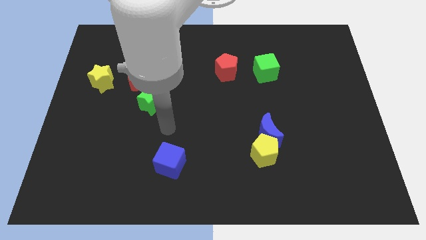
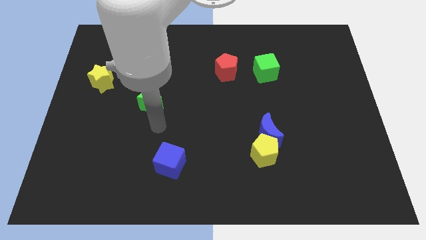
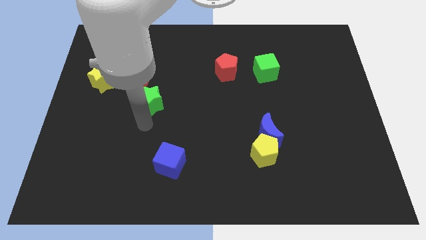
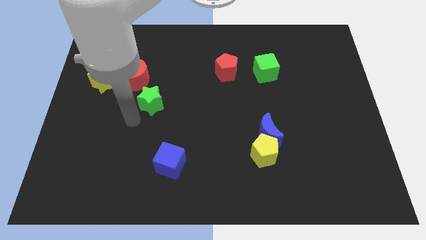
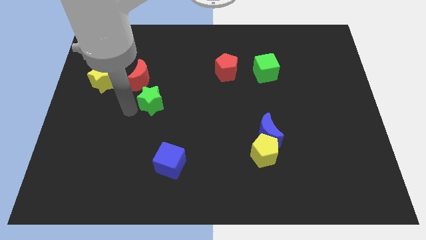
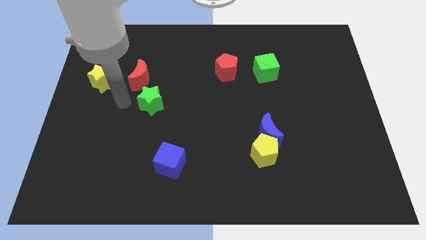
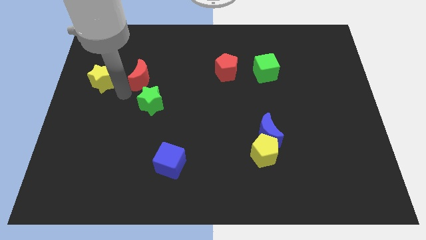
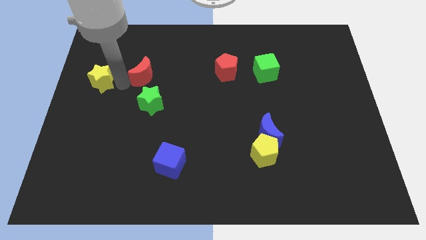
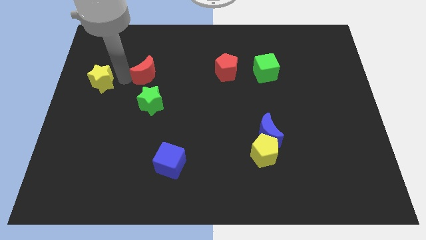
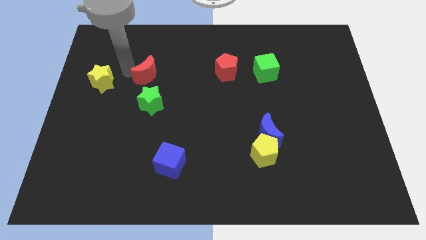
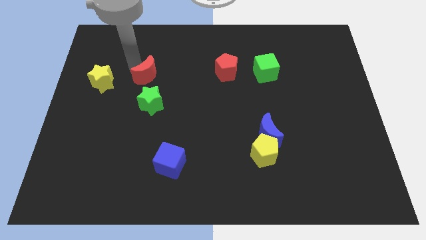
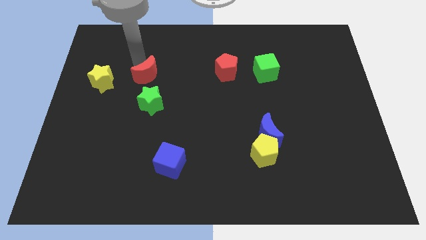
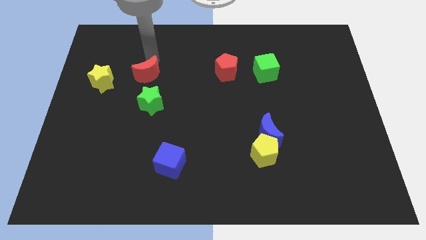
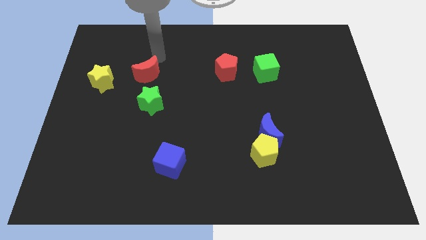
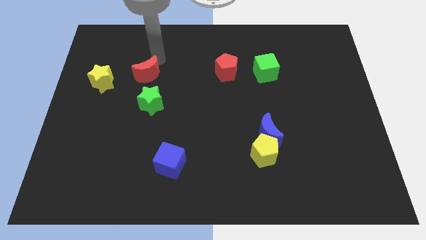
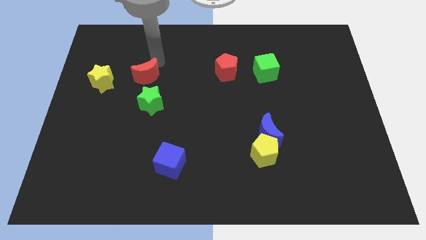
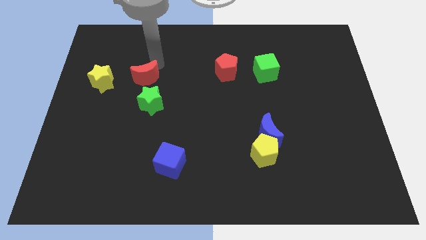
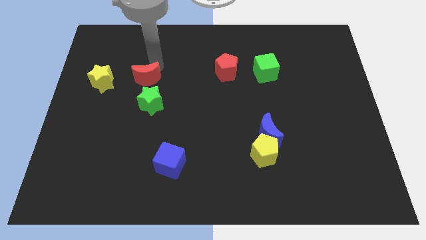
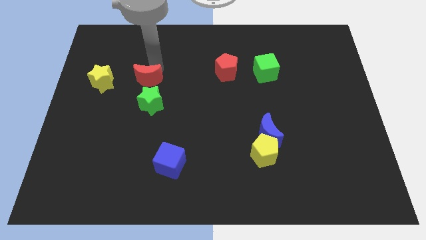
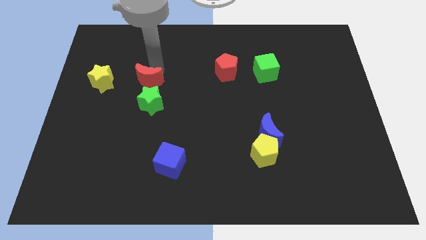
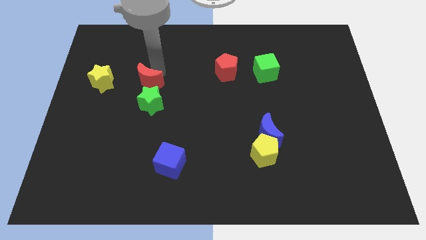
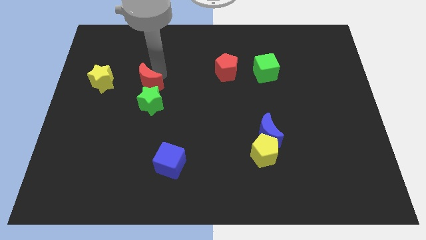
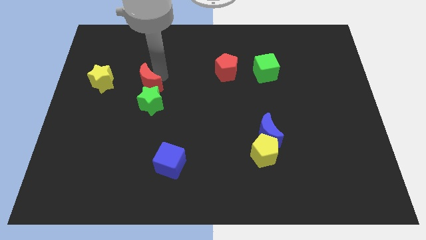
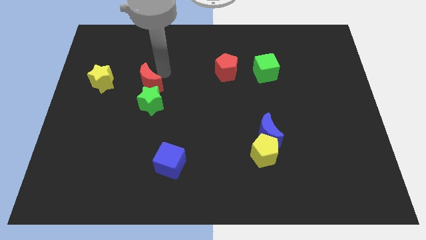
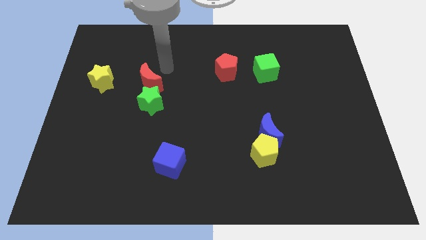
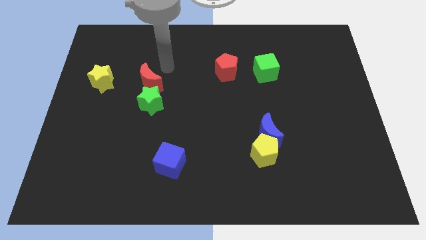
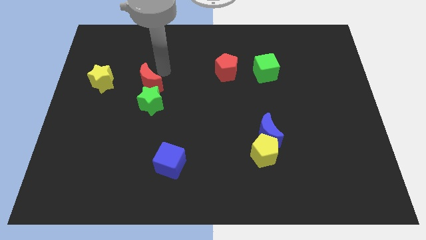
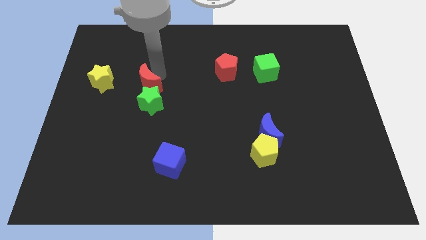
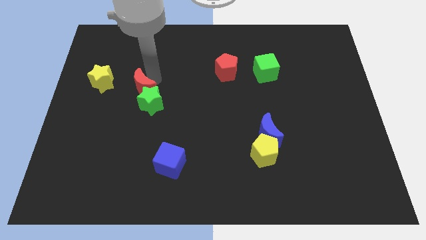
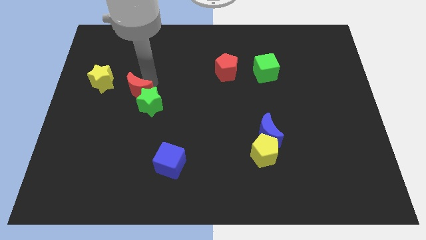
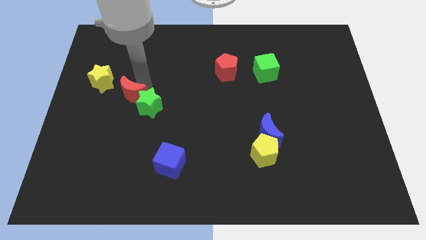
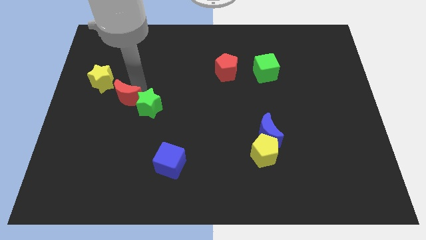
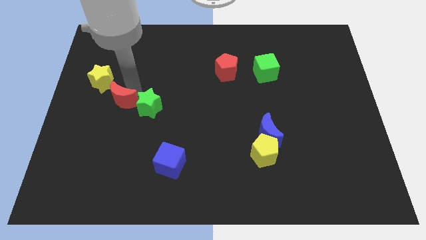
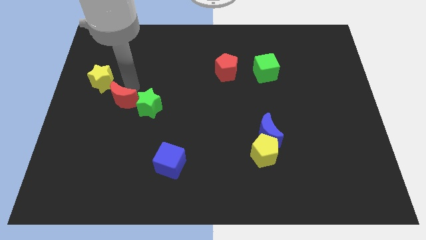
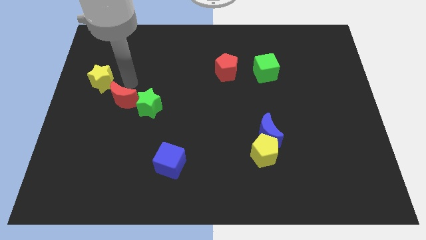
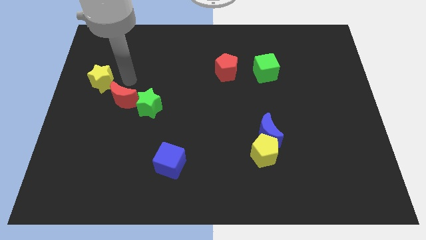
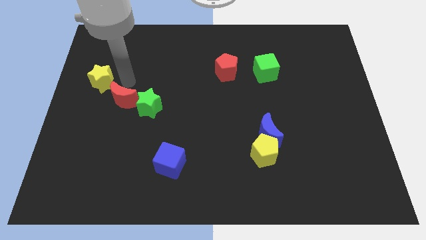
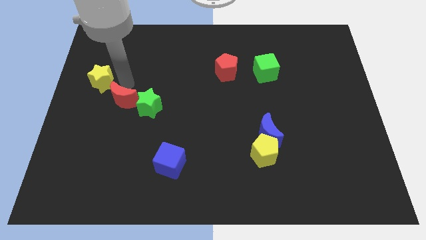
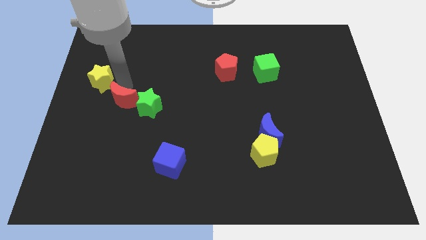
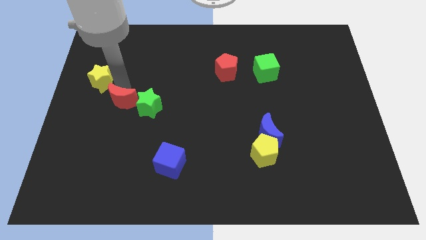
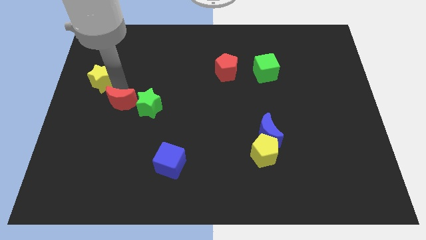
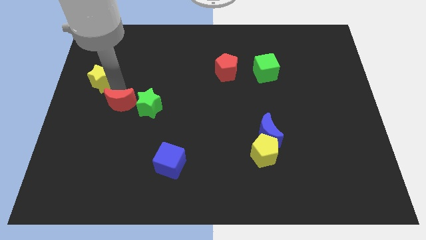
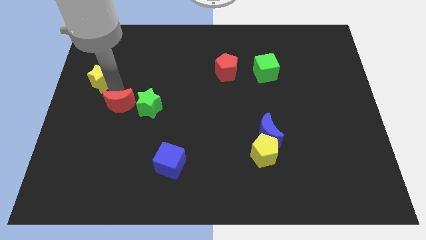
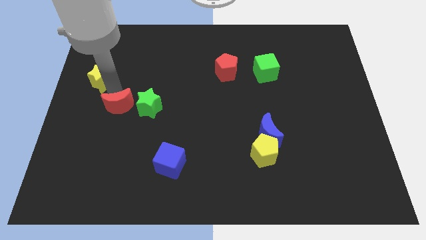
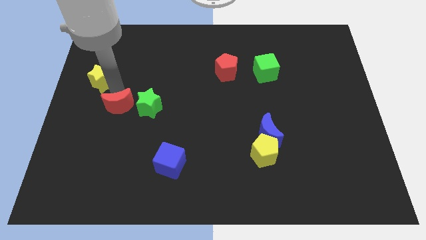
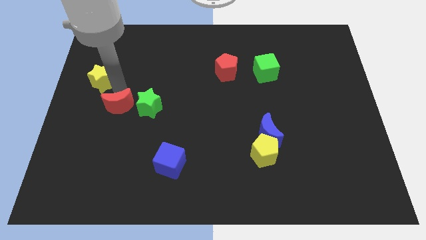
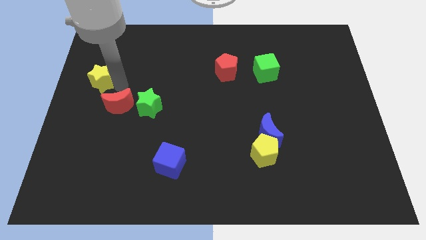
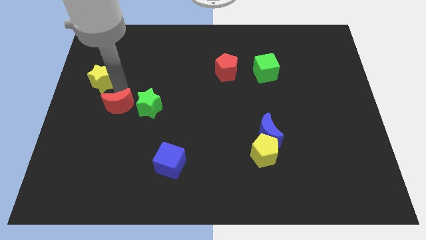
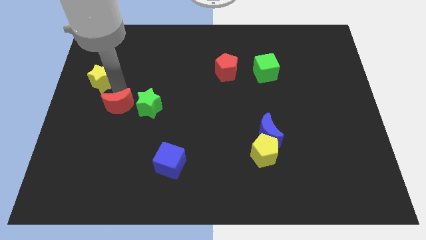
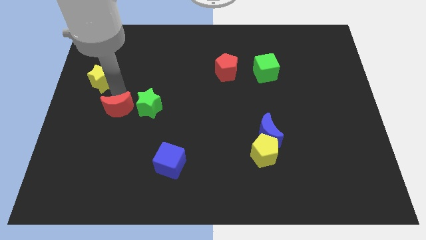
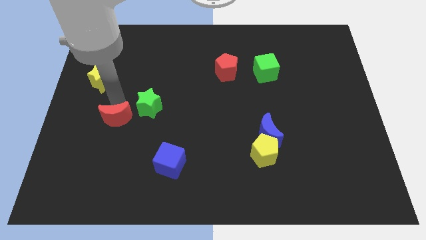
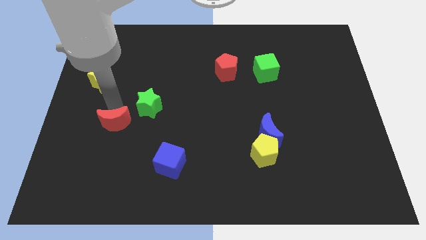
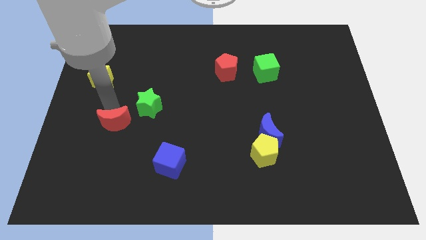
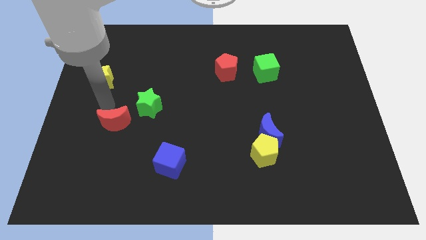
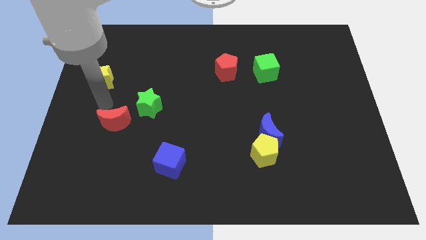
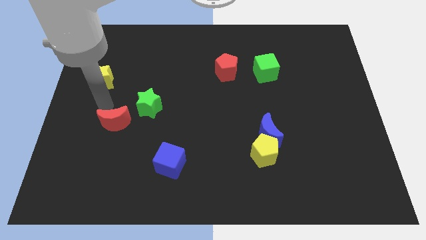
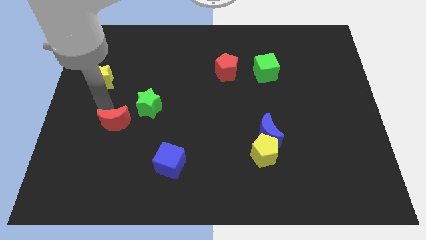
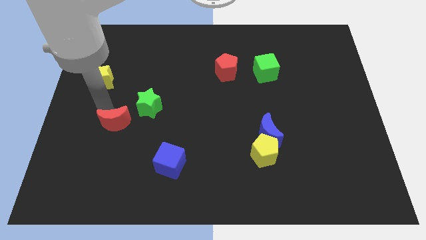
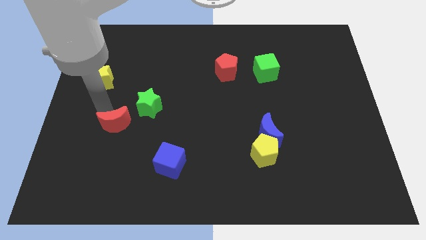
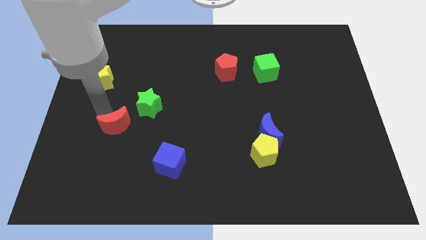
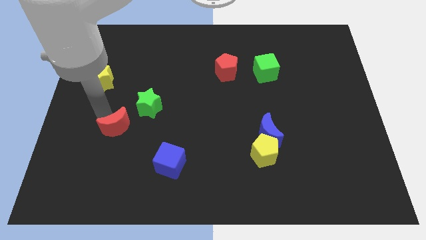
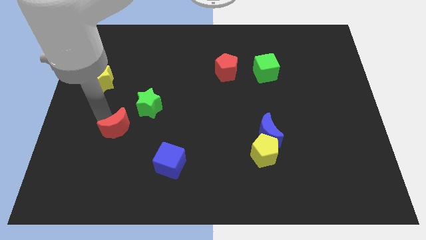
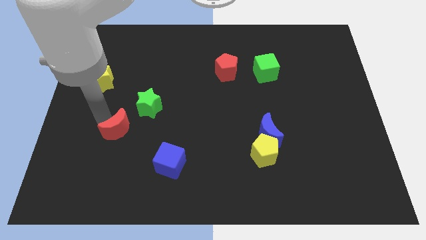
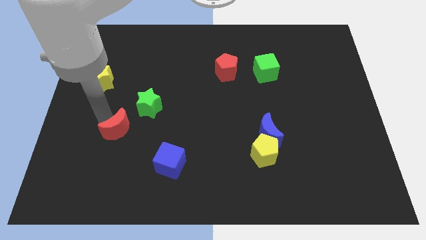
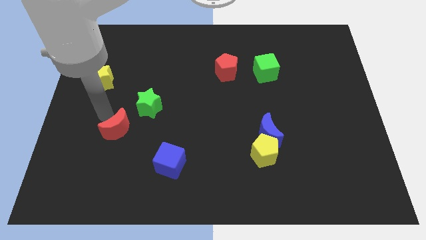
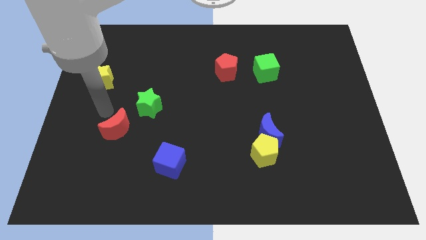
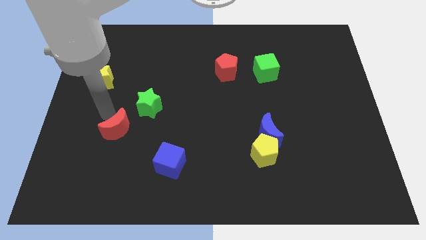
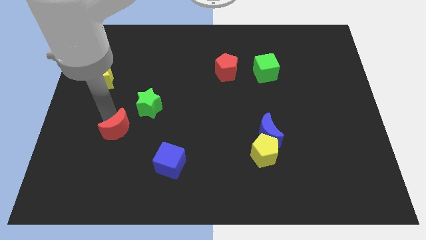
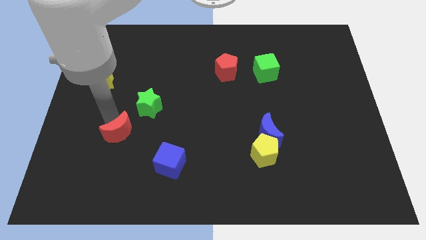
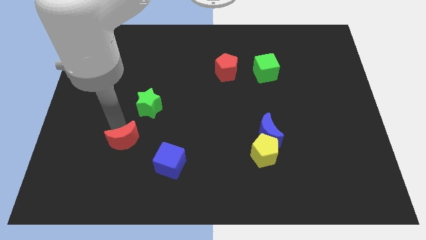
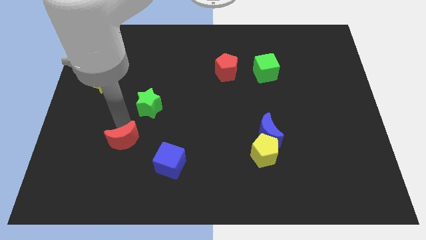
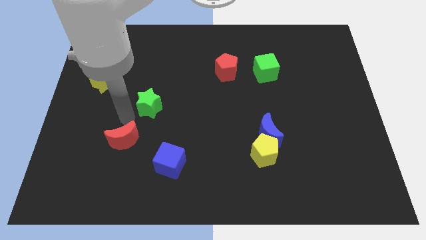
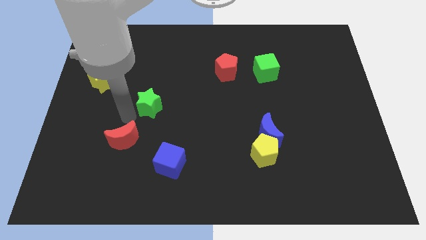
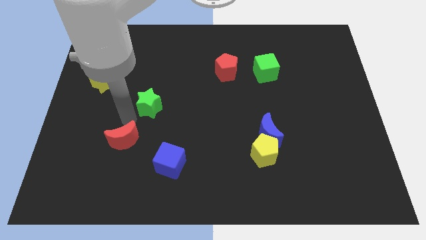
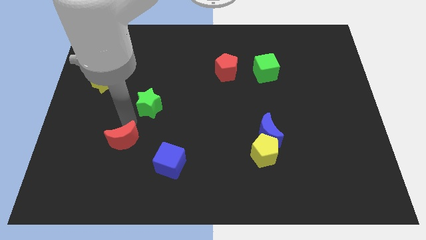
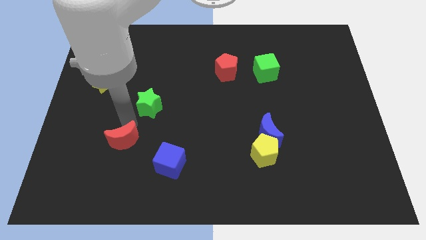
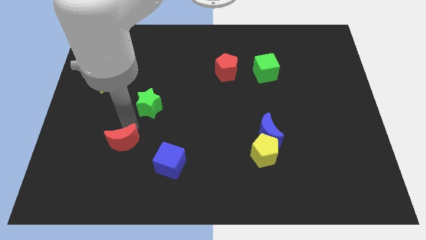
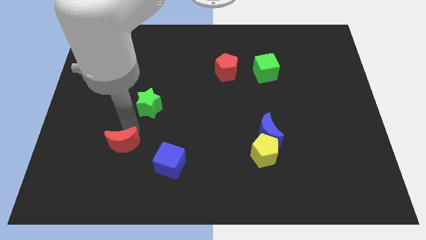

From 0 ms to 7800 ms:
put the red moon to the left side of the blue cube
